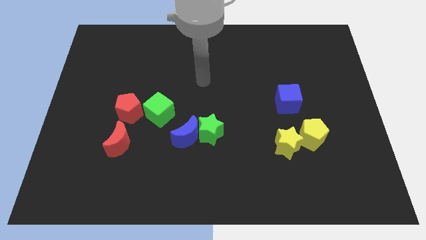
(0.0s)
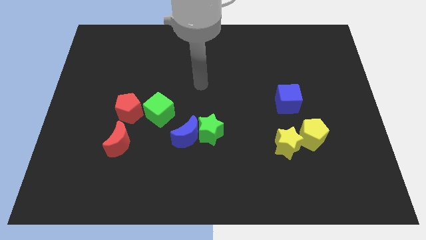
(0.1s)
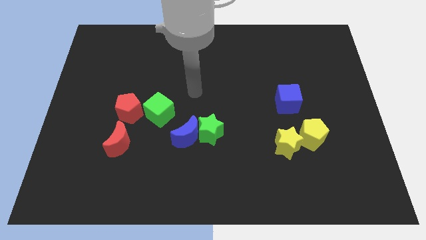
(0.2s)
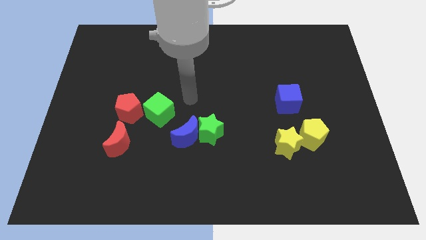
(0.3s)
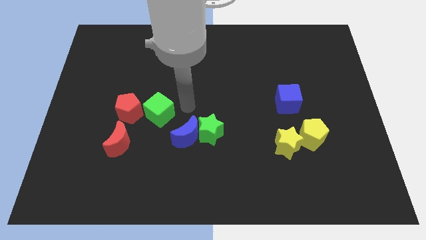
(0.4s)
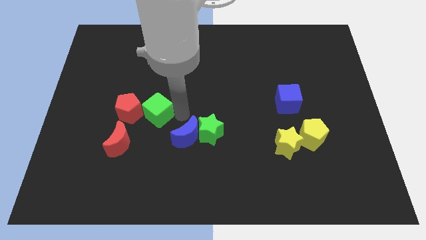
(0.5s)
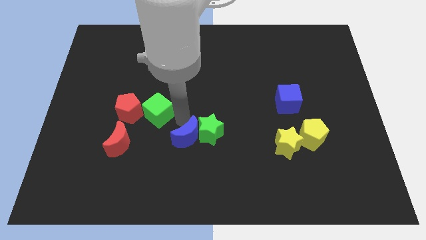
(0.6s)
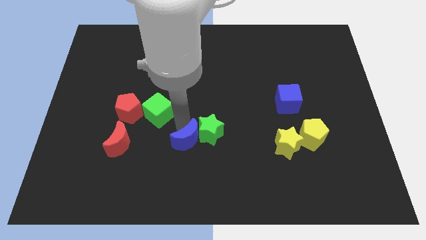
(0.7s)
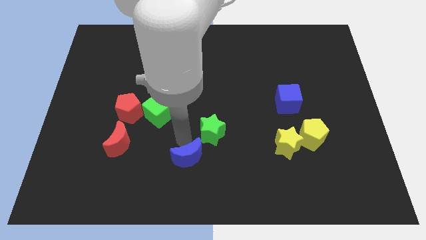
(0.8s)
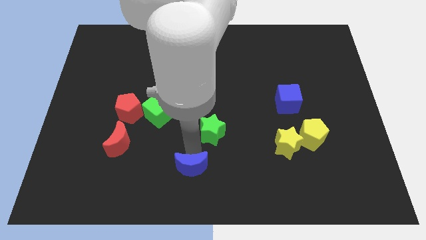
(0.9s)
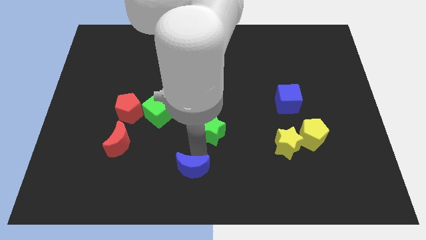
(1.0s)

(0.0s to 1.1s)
separate the green star from the blue moon

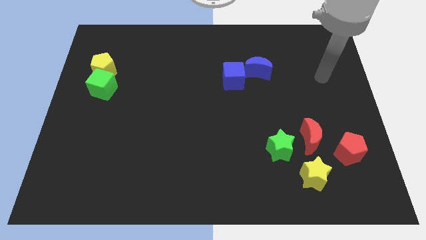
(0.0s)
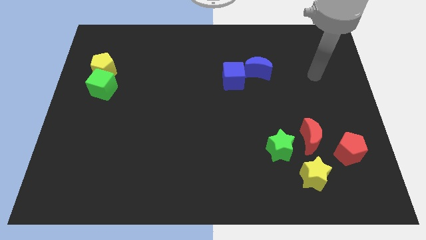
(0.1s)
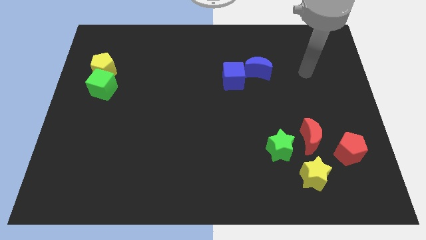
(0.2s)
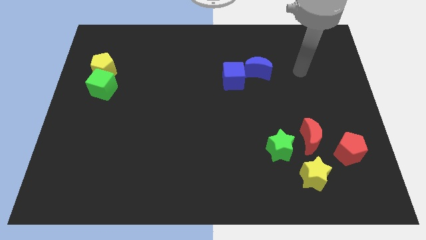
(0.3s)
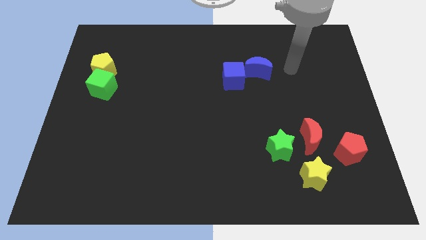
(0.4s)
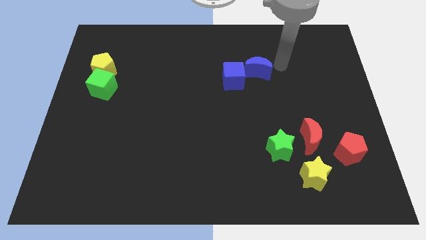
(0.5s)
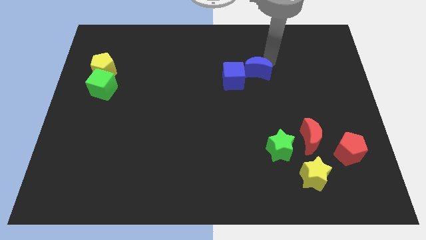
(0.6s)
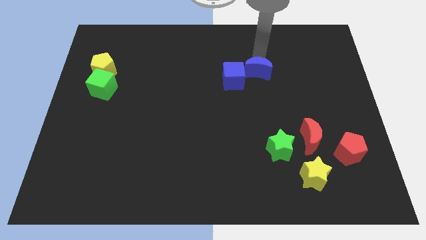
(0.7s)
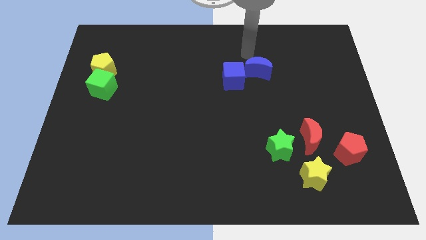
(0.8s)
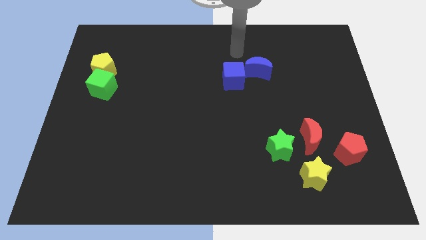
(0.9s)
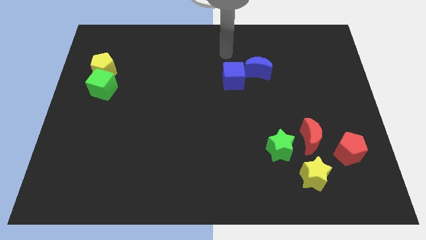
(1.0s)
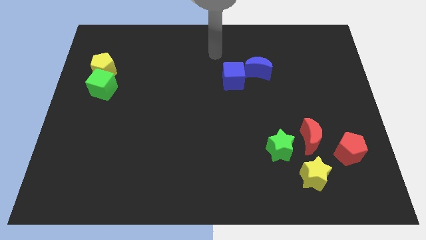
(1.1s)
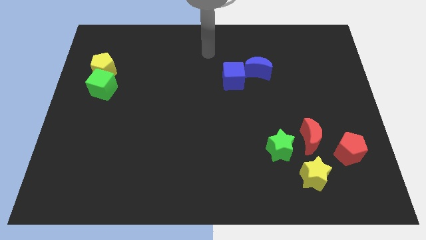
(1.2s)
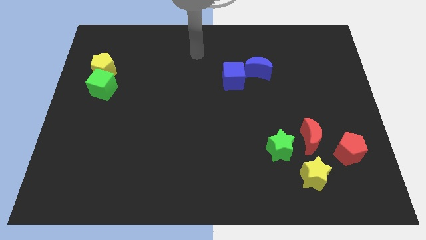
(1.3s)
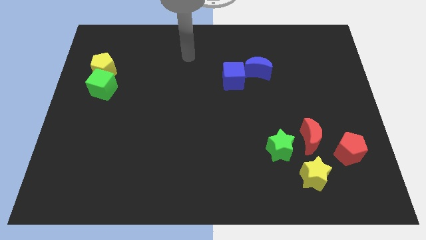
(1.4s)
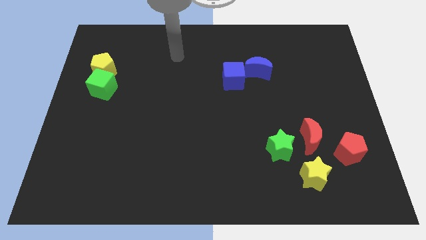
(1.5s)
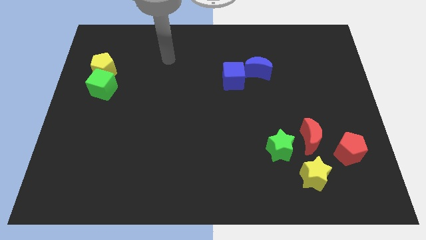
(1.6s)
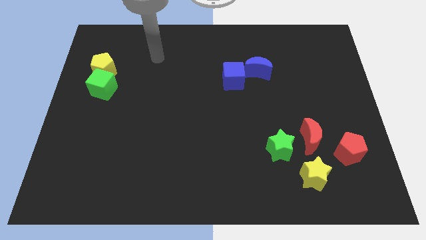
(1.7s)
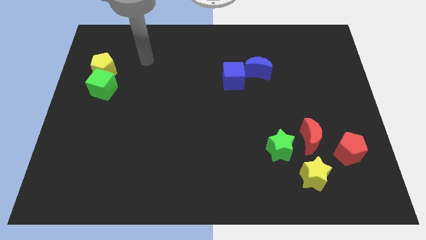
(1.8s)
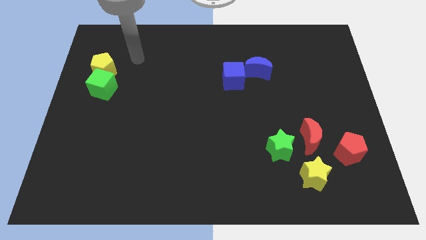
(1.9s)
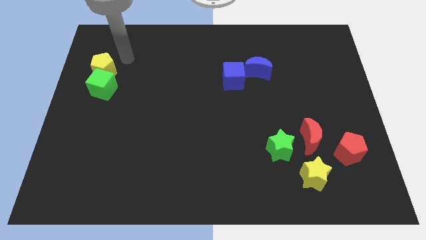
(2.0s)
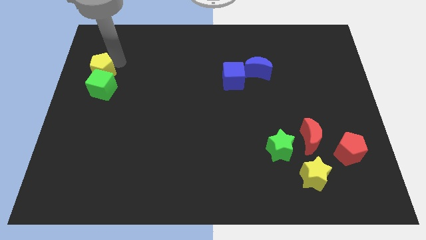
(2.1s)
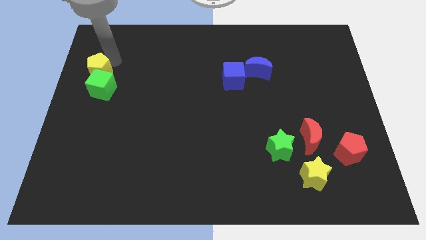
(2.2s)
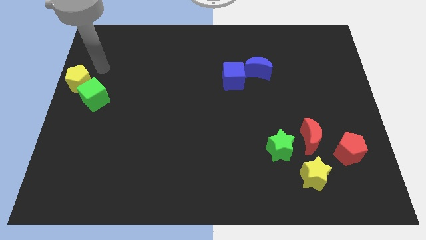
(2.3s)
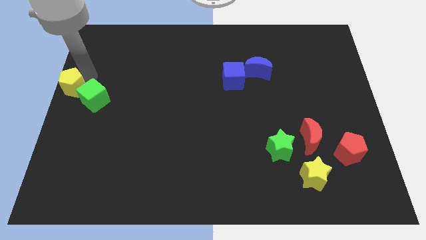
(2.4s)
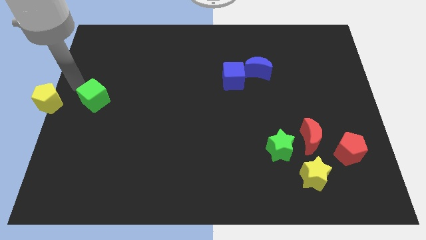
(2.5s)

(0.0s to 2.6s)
move the green cube away from the yellow pentagon

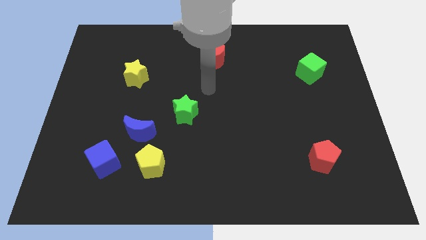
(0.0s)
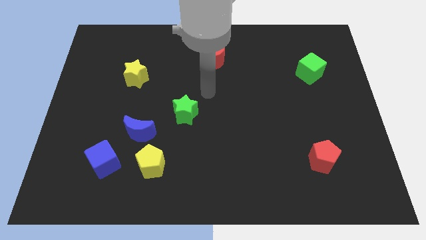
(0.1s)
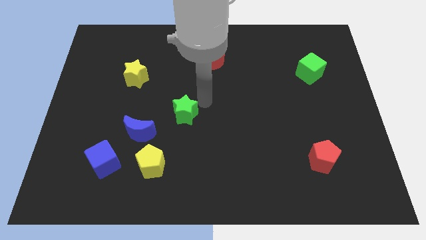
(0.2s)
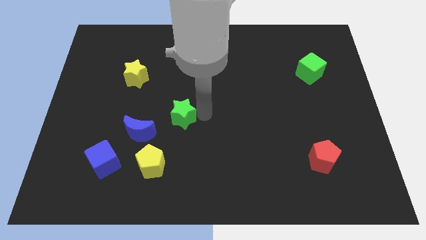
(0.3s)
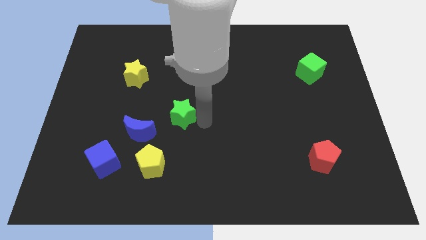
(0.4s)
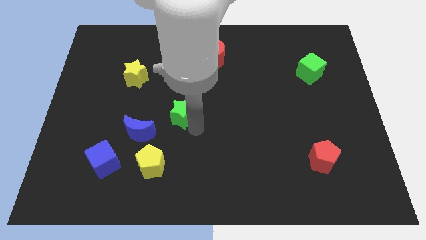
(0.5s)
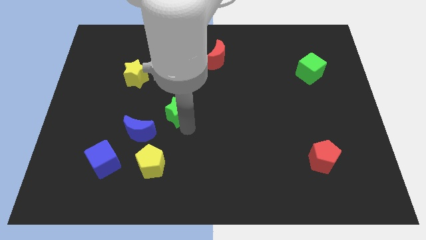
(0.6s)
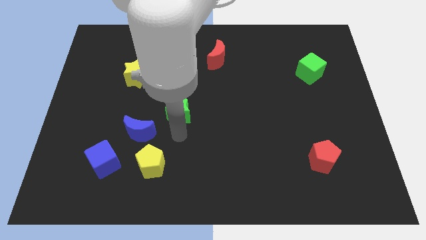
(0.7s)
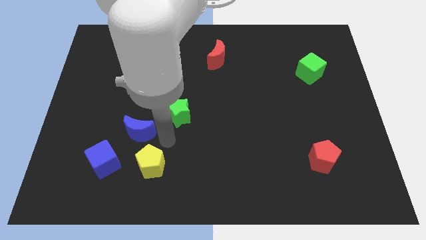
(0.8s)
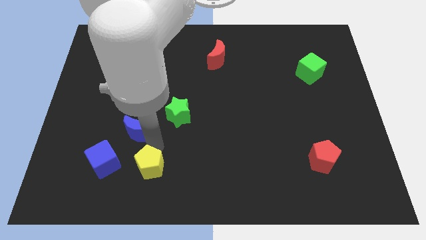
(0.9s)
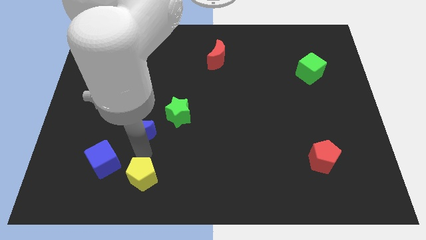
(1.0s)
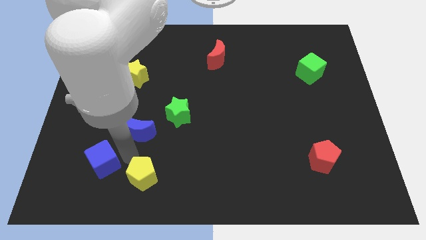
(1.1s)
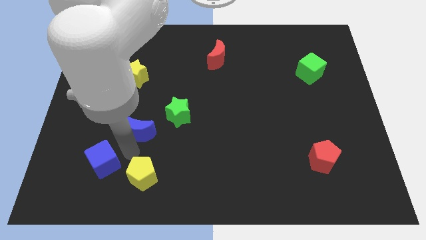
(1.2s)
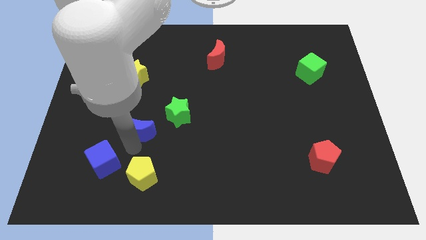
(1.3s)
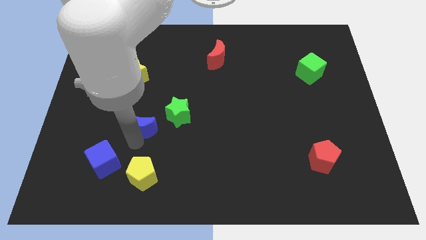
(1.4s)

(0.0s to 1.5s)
separate the blue moon from the yellow pentagon and blue cube

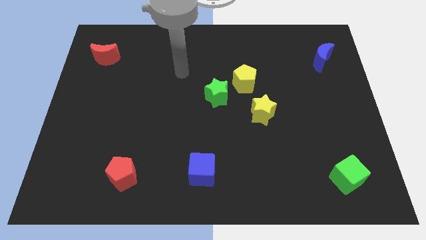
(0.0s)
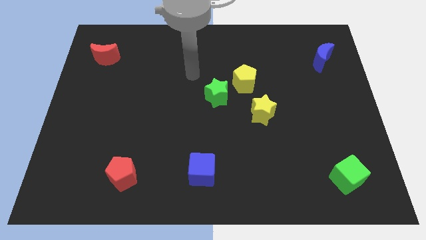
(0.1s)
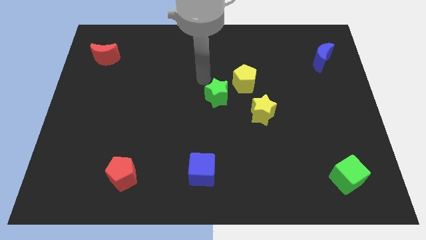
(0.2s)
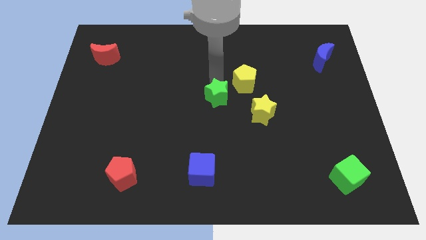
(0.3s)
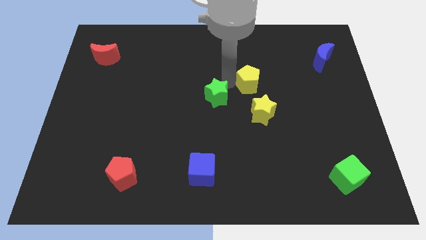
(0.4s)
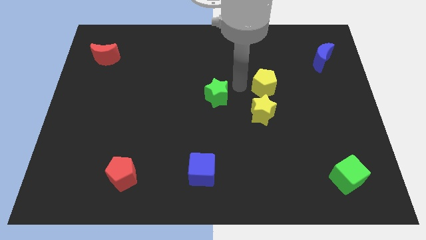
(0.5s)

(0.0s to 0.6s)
move the green star away from the yellow pentagon

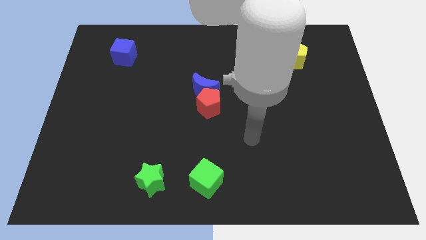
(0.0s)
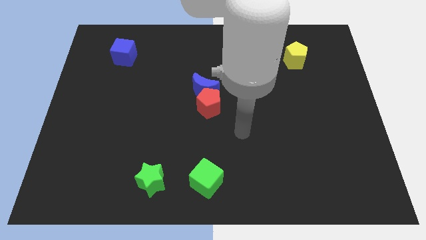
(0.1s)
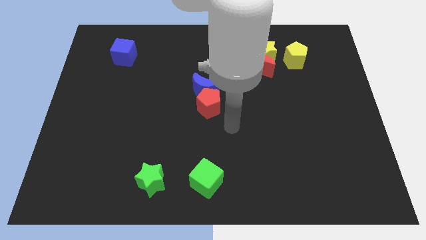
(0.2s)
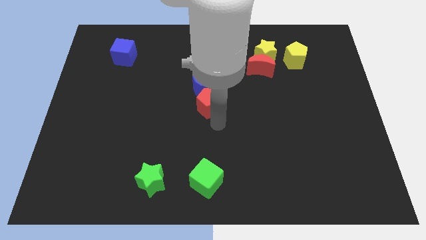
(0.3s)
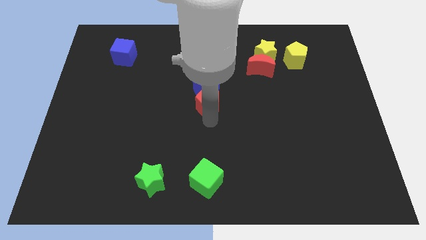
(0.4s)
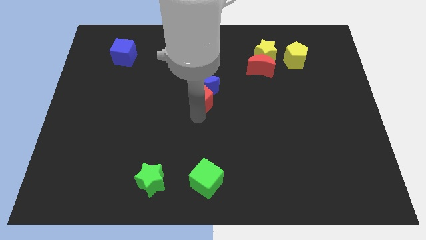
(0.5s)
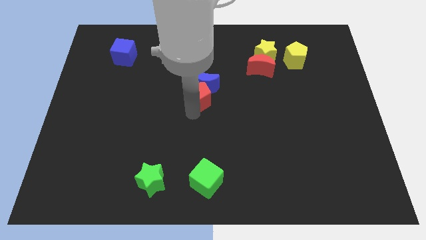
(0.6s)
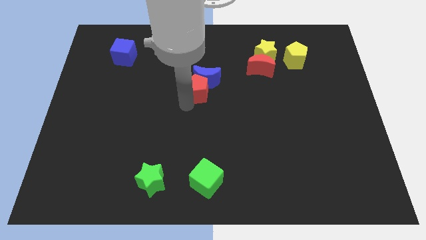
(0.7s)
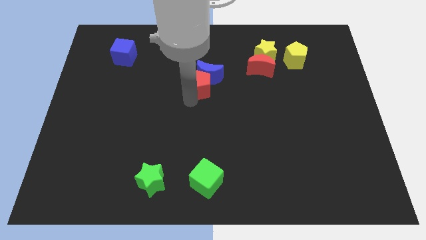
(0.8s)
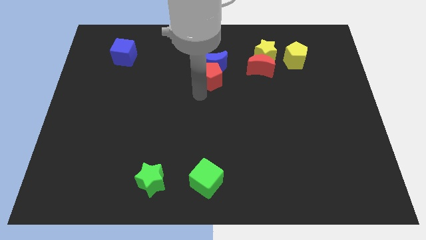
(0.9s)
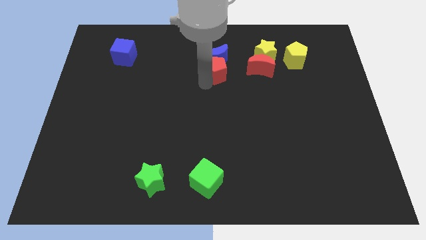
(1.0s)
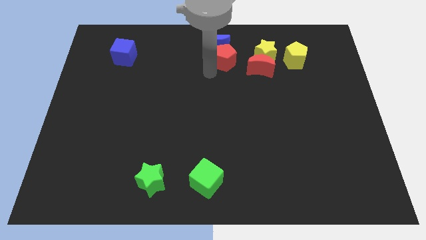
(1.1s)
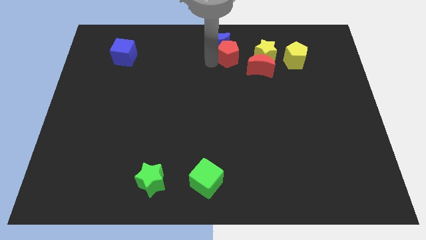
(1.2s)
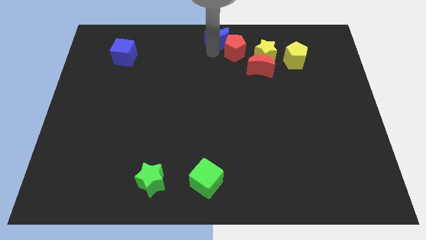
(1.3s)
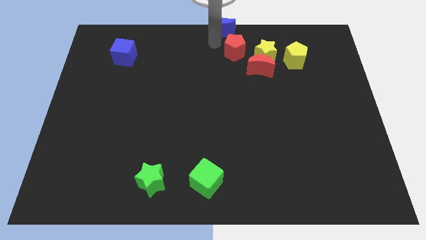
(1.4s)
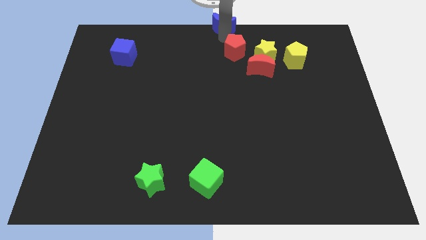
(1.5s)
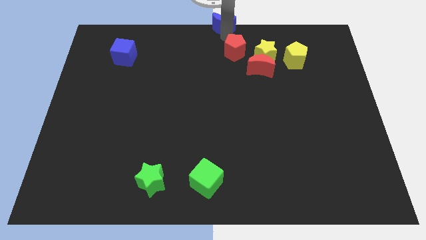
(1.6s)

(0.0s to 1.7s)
separate the red pentagon from the blue moon

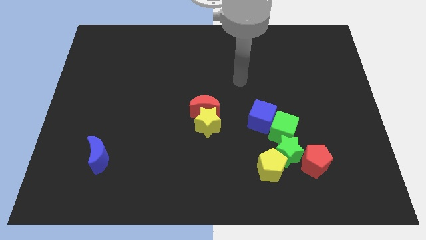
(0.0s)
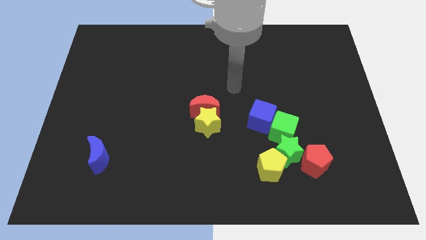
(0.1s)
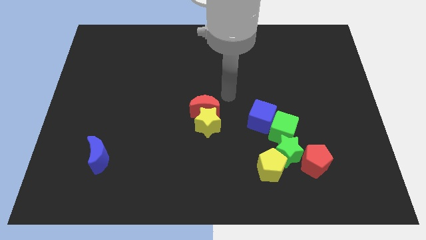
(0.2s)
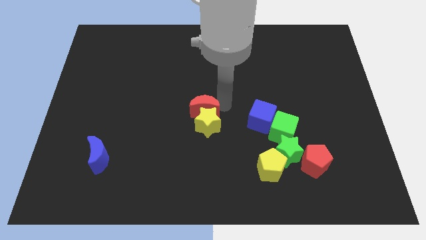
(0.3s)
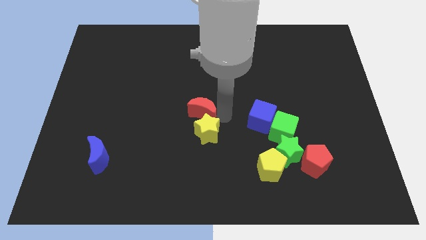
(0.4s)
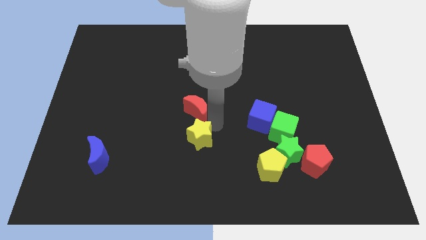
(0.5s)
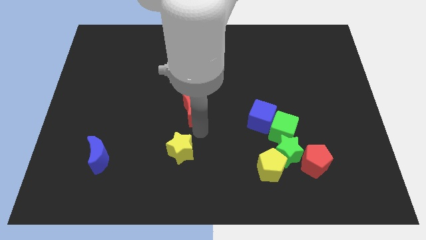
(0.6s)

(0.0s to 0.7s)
move the red moon away from the yellow star

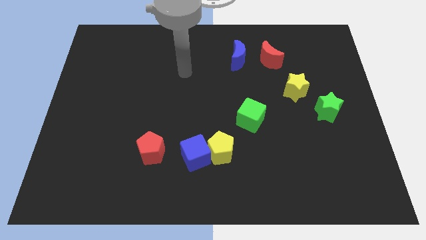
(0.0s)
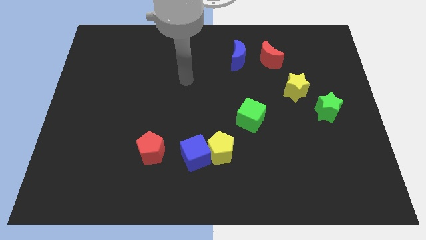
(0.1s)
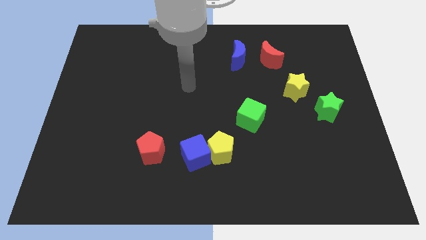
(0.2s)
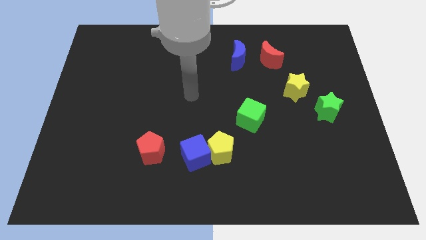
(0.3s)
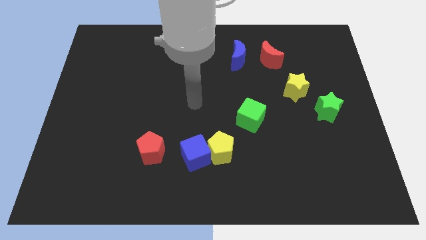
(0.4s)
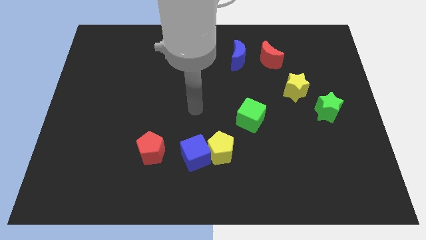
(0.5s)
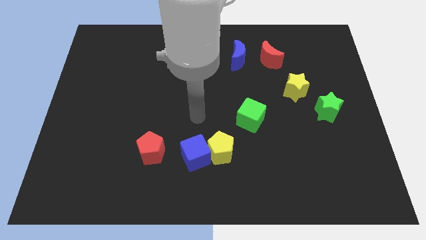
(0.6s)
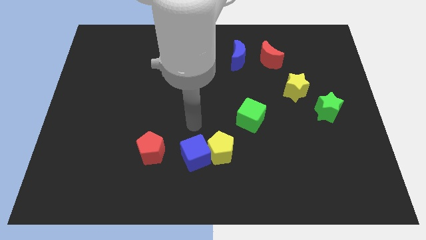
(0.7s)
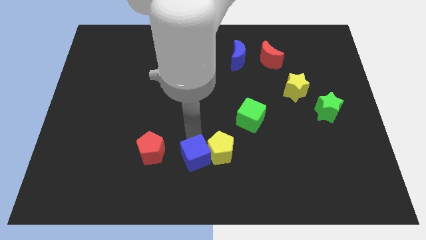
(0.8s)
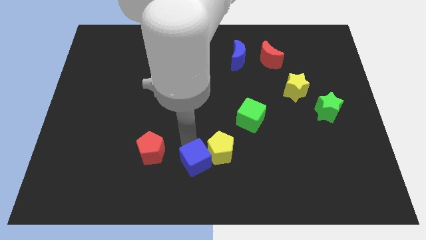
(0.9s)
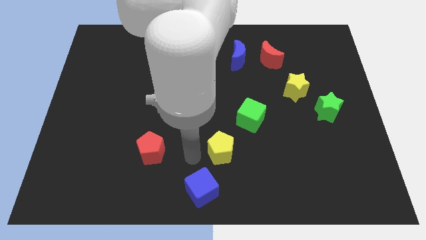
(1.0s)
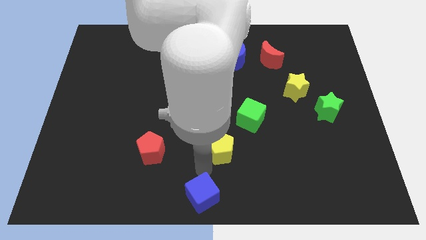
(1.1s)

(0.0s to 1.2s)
move the yellow pentagon away from the blue cube
